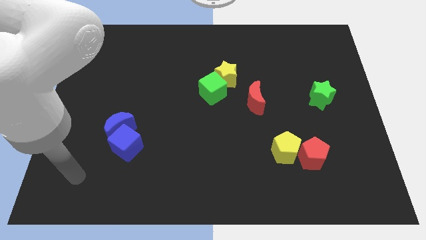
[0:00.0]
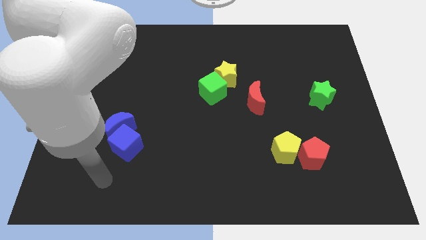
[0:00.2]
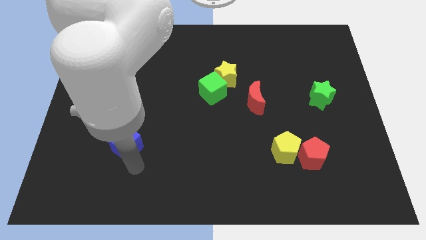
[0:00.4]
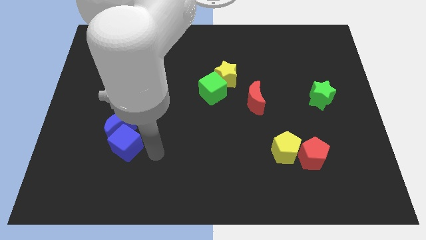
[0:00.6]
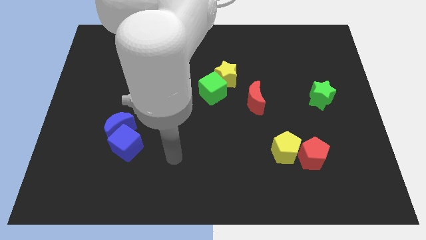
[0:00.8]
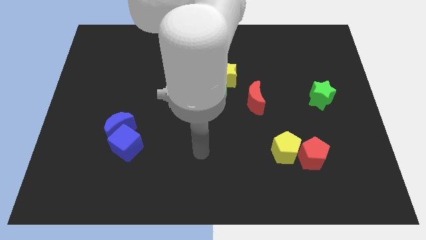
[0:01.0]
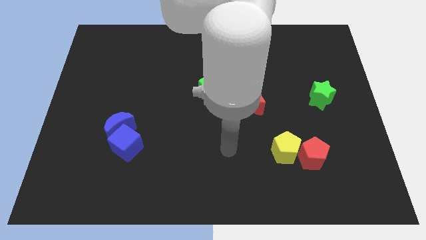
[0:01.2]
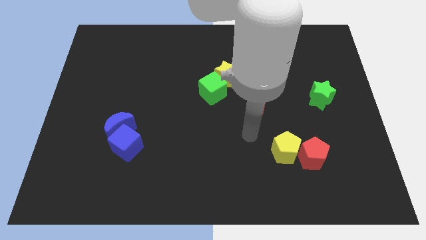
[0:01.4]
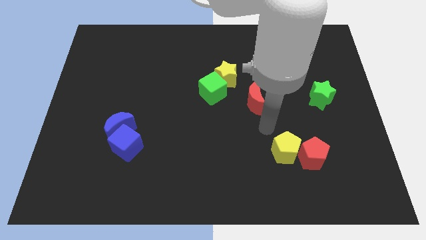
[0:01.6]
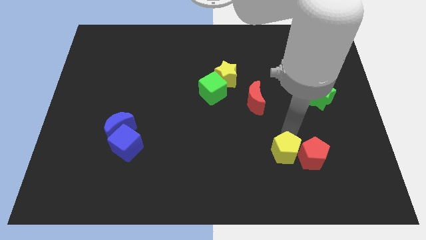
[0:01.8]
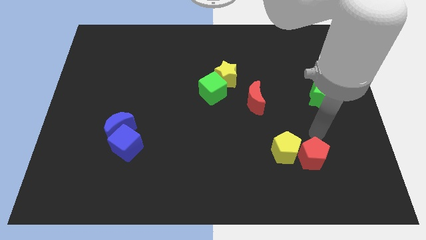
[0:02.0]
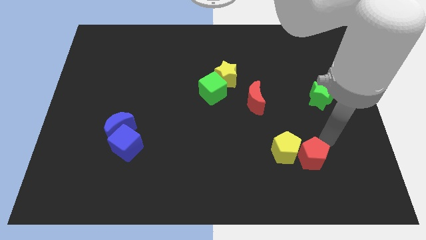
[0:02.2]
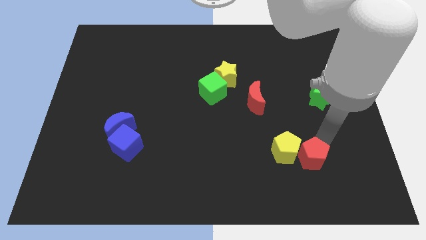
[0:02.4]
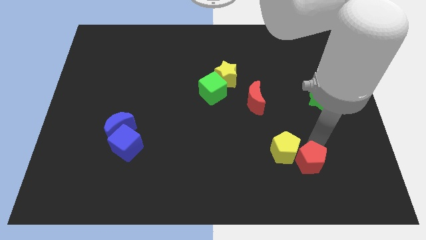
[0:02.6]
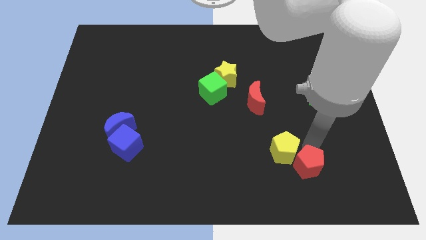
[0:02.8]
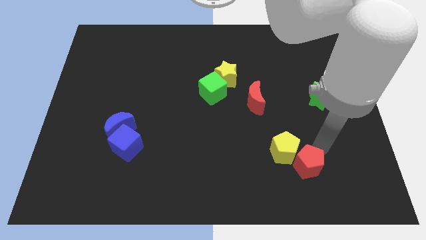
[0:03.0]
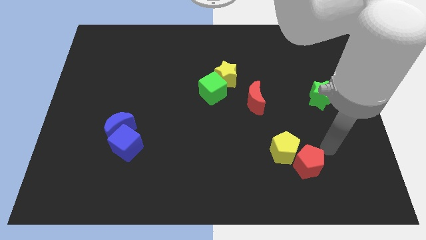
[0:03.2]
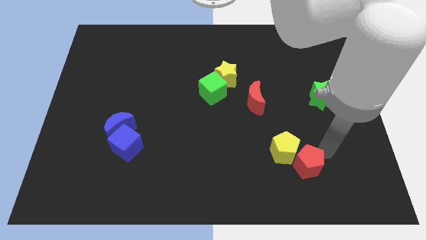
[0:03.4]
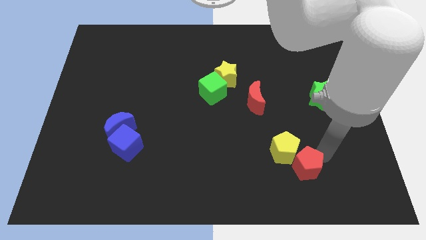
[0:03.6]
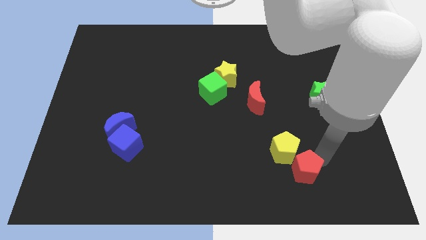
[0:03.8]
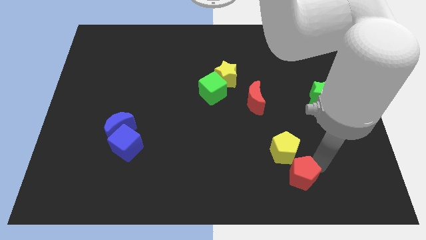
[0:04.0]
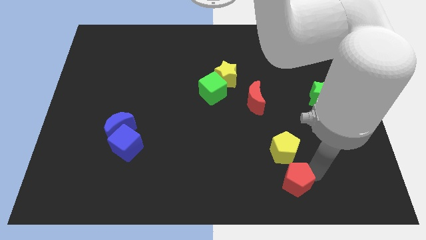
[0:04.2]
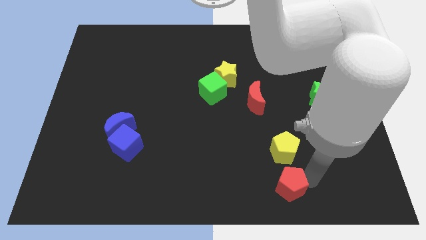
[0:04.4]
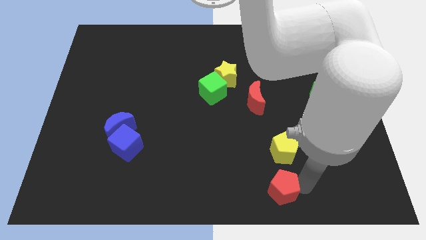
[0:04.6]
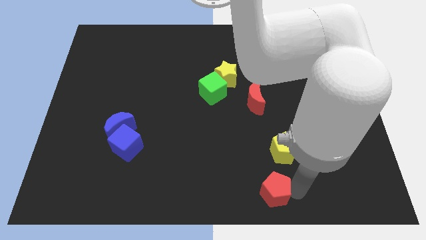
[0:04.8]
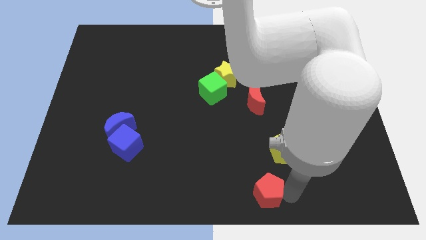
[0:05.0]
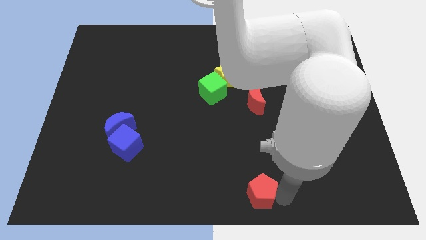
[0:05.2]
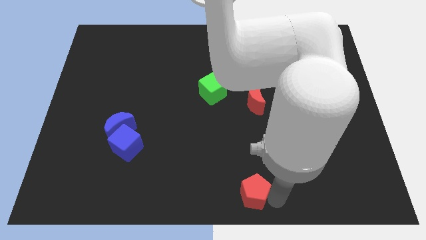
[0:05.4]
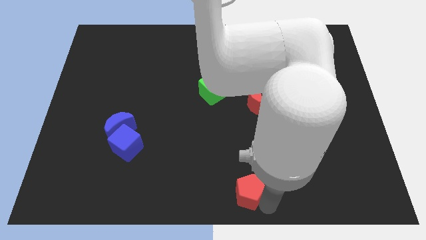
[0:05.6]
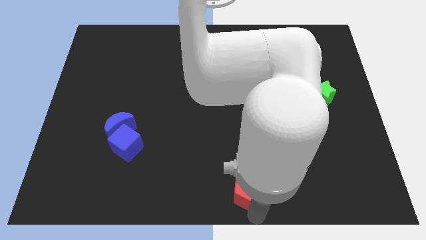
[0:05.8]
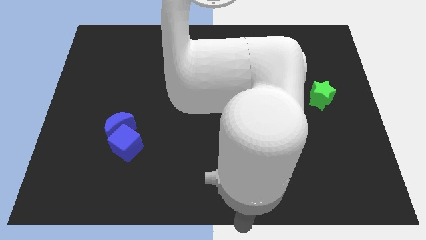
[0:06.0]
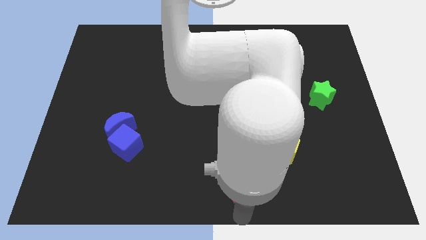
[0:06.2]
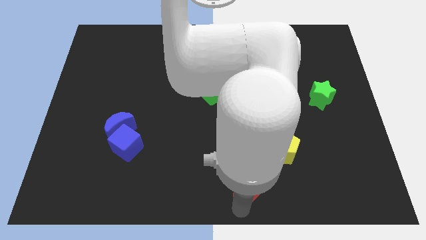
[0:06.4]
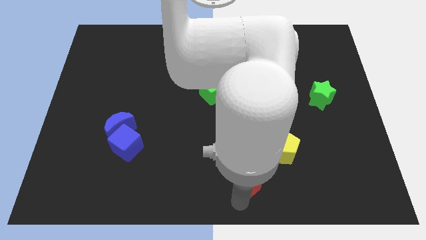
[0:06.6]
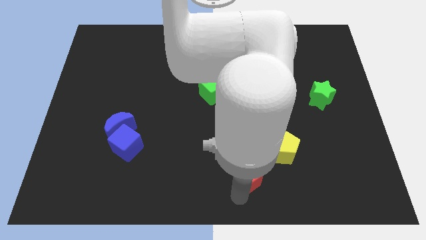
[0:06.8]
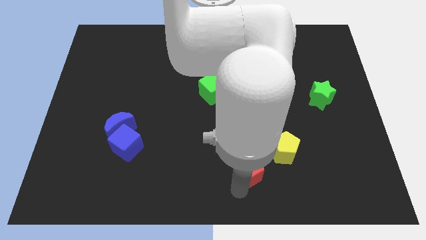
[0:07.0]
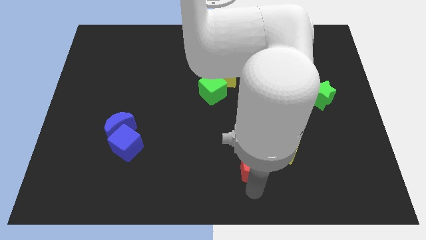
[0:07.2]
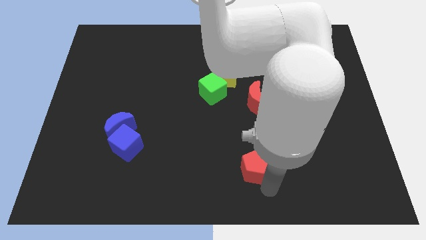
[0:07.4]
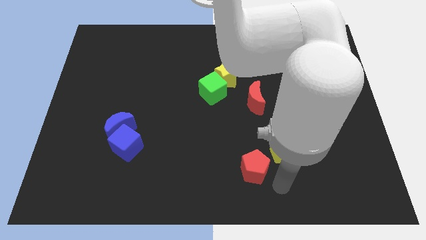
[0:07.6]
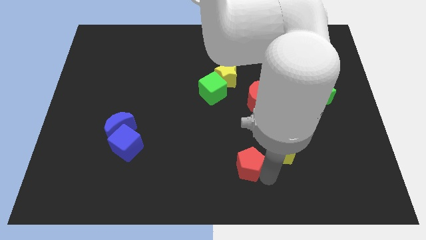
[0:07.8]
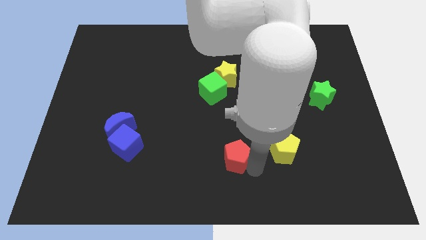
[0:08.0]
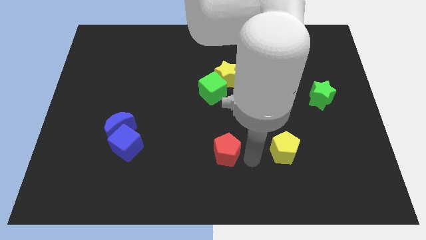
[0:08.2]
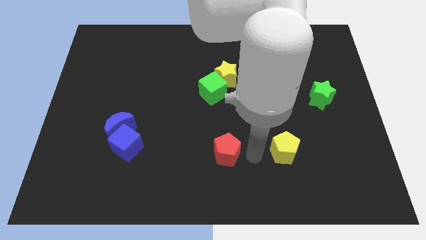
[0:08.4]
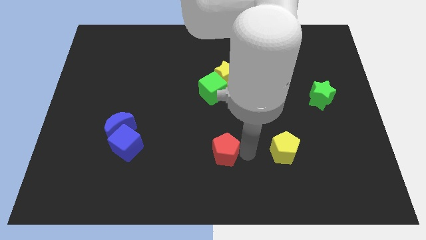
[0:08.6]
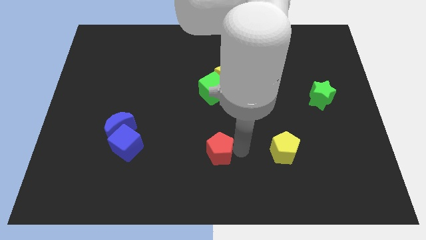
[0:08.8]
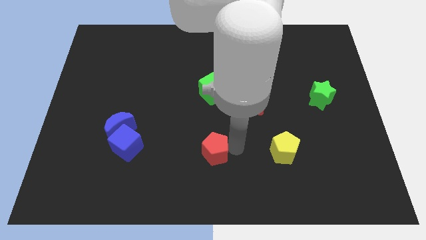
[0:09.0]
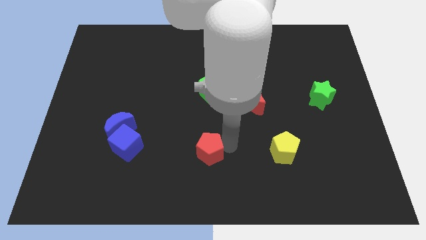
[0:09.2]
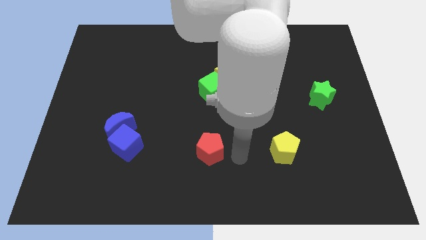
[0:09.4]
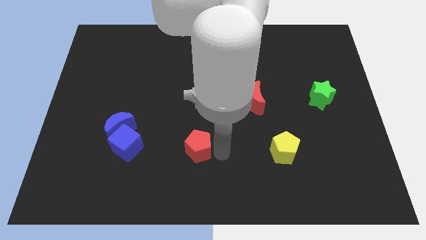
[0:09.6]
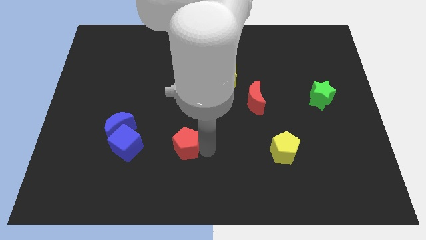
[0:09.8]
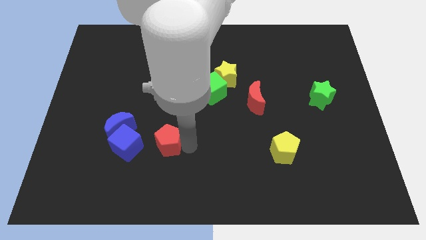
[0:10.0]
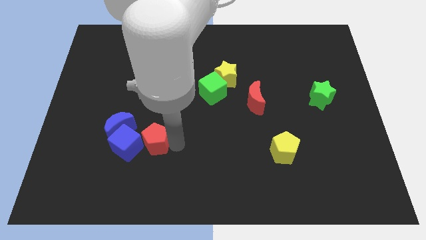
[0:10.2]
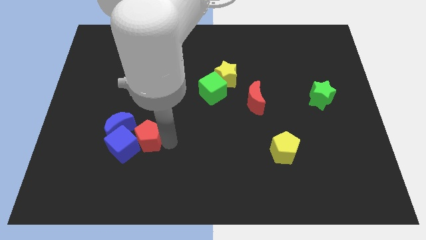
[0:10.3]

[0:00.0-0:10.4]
push the red pentagon next to the blue cube

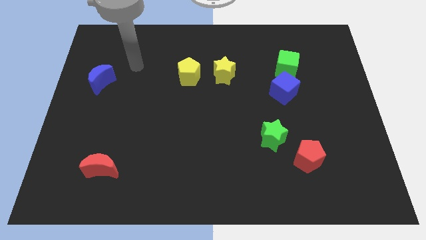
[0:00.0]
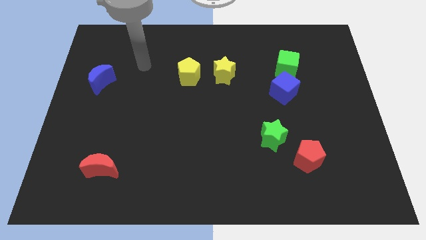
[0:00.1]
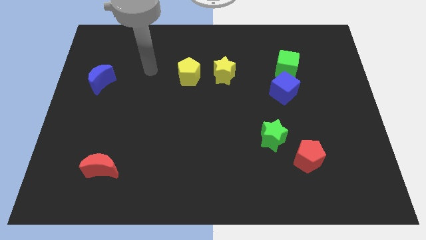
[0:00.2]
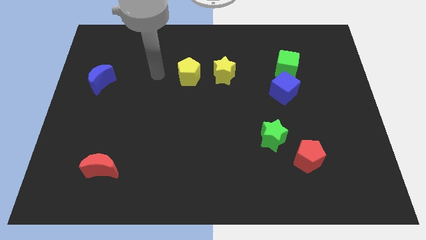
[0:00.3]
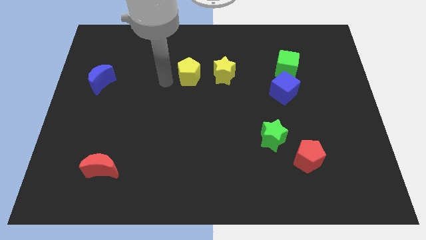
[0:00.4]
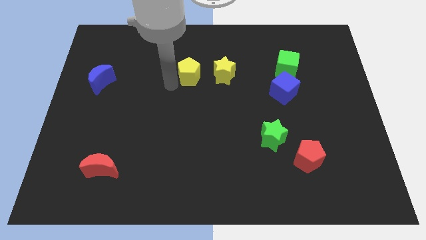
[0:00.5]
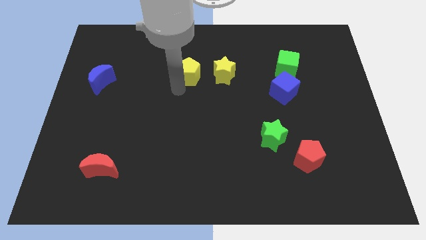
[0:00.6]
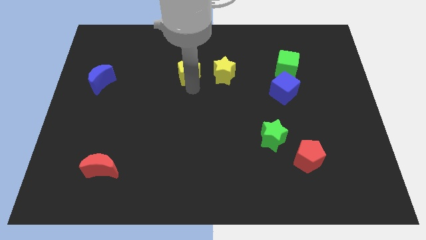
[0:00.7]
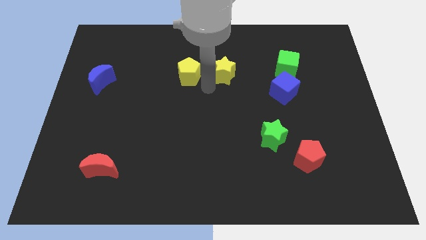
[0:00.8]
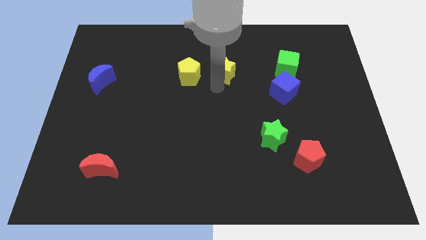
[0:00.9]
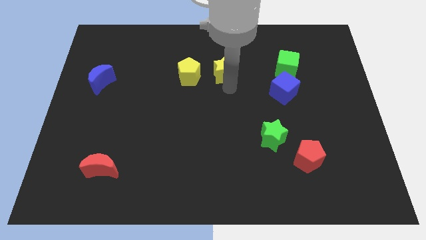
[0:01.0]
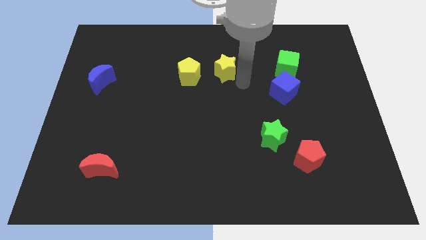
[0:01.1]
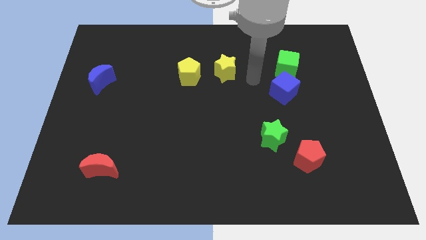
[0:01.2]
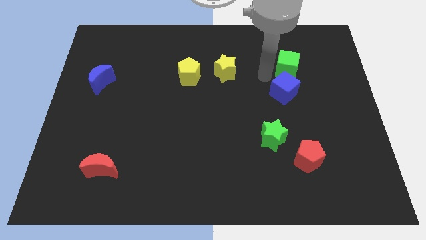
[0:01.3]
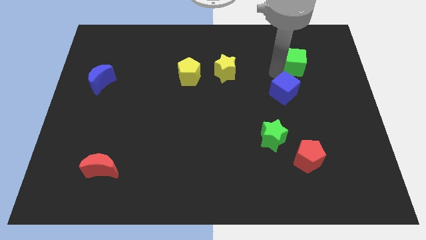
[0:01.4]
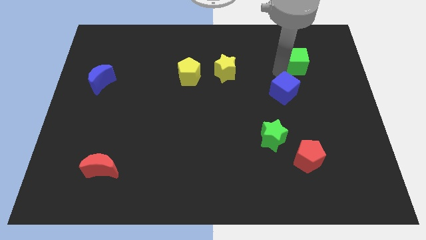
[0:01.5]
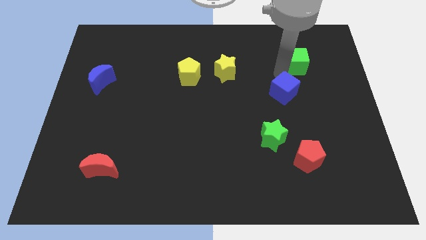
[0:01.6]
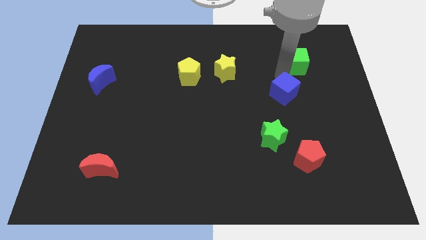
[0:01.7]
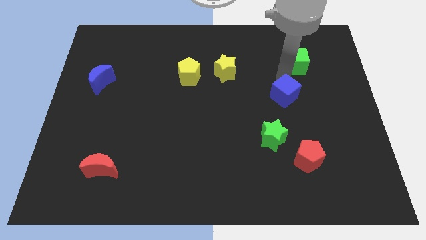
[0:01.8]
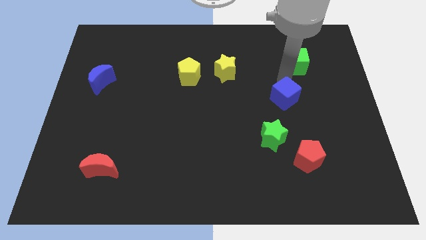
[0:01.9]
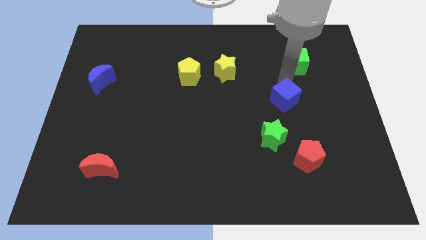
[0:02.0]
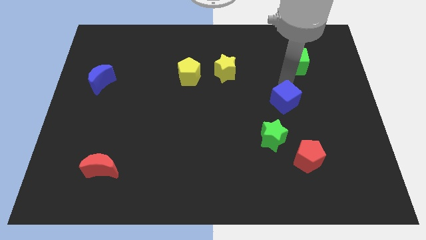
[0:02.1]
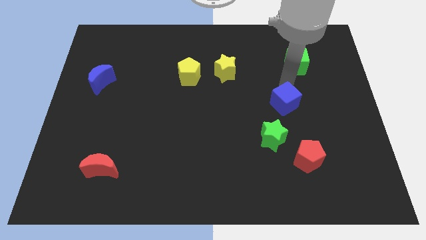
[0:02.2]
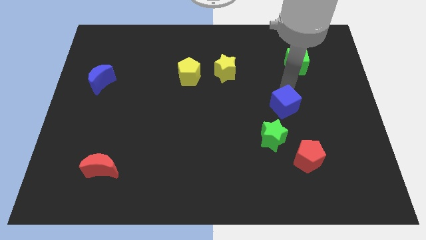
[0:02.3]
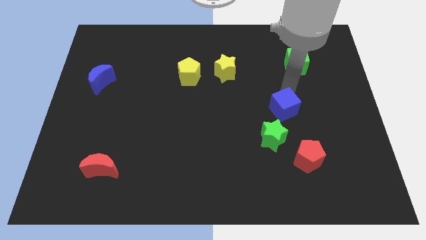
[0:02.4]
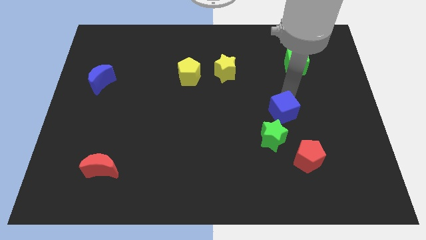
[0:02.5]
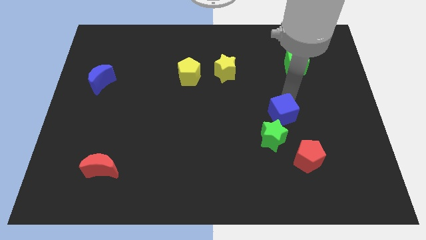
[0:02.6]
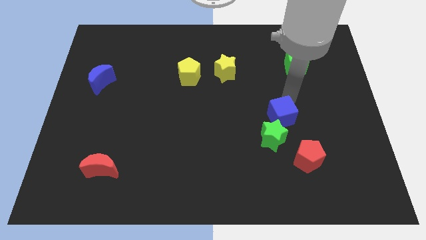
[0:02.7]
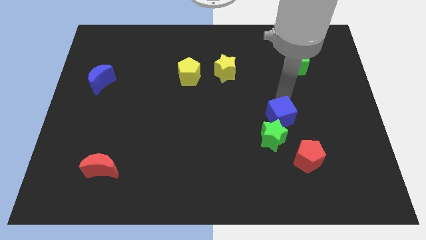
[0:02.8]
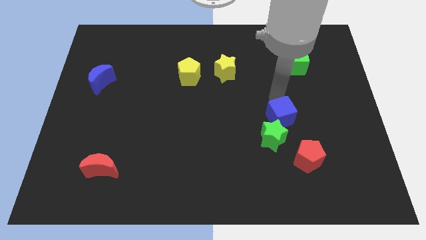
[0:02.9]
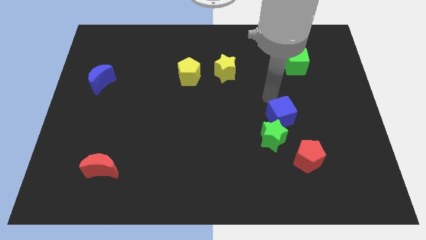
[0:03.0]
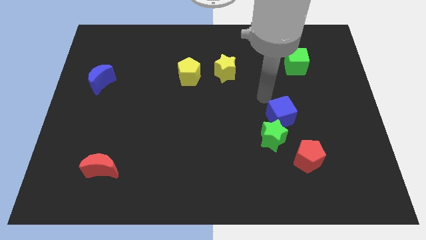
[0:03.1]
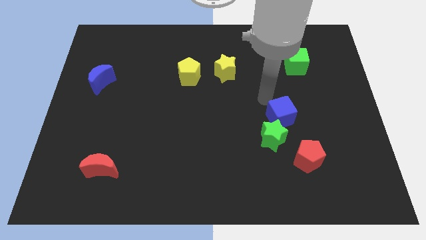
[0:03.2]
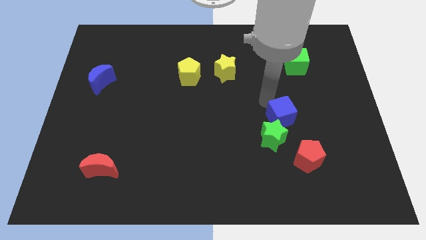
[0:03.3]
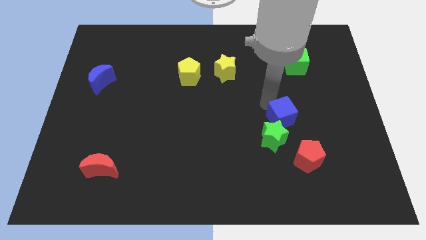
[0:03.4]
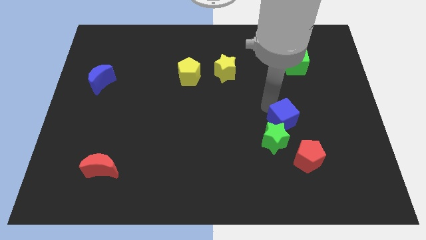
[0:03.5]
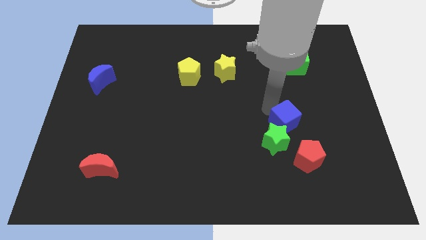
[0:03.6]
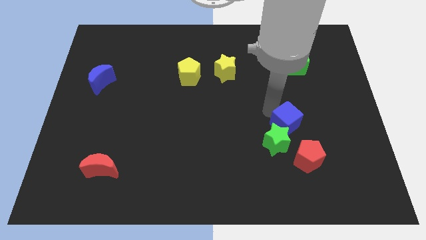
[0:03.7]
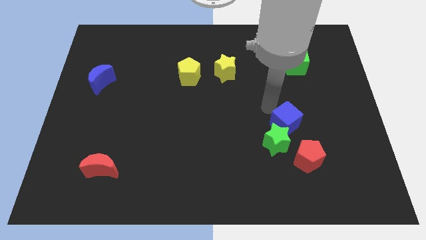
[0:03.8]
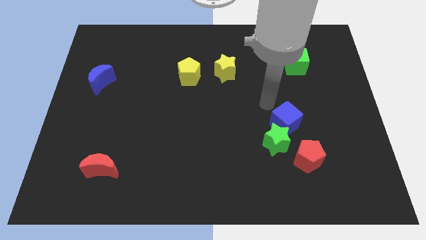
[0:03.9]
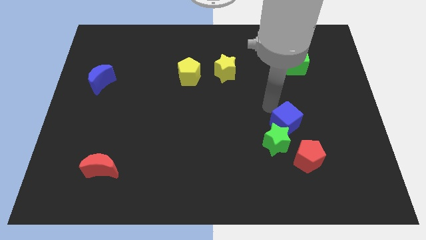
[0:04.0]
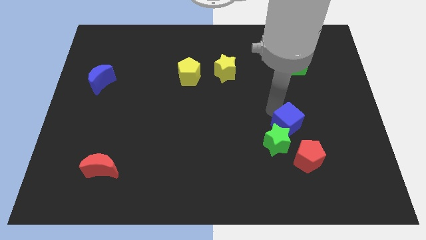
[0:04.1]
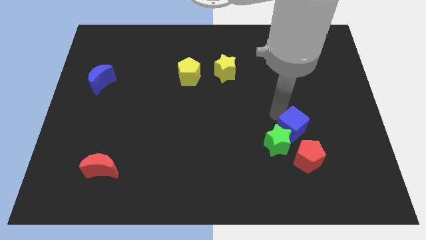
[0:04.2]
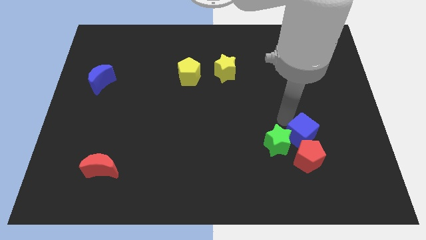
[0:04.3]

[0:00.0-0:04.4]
move the blue cube next to the red pentagon
